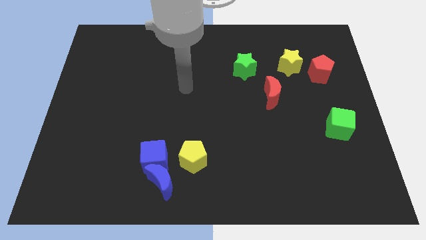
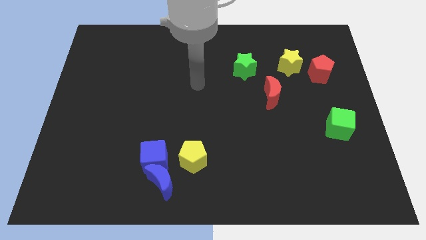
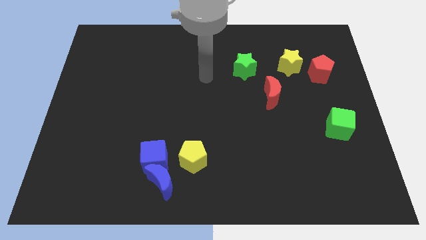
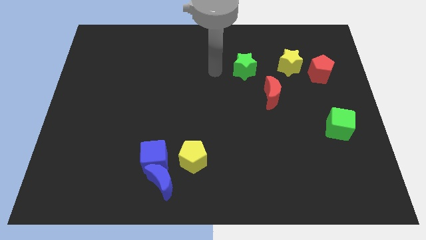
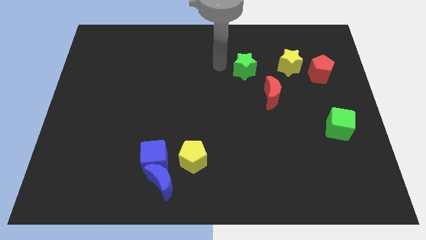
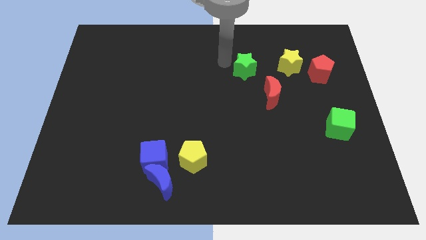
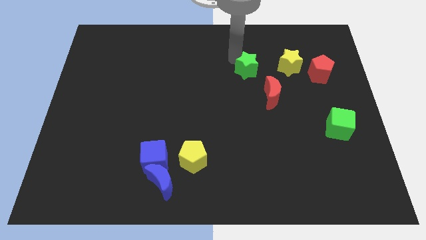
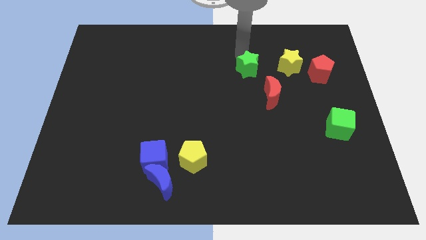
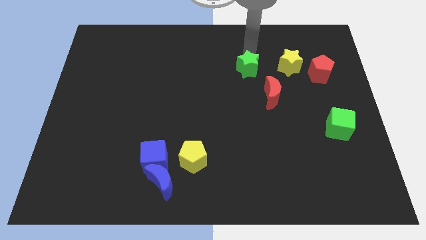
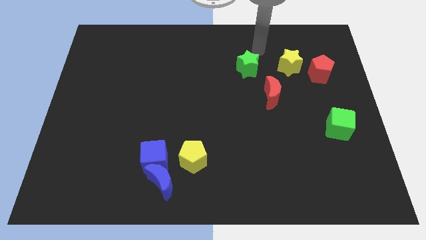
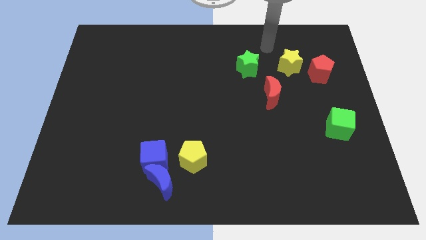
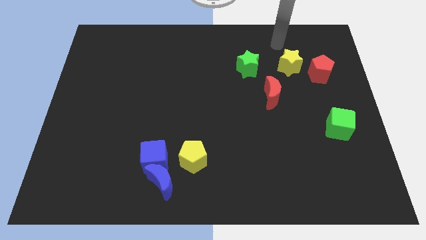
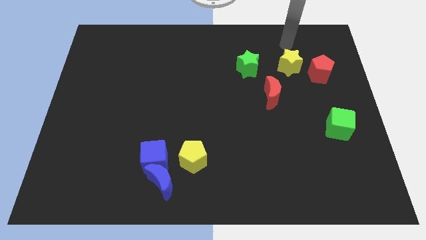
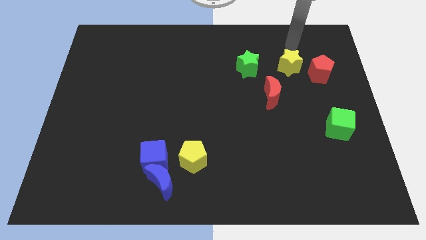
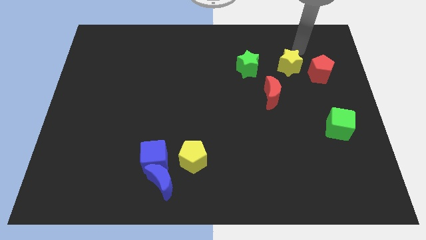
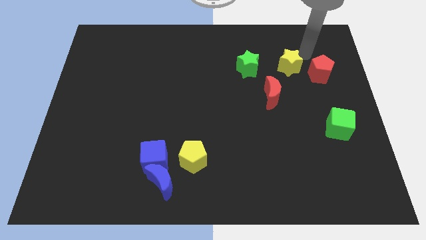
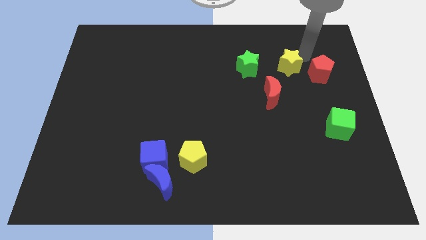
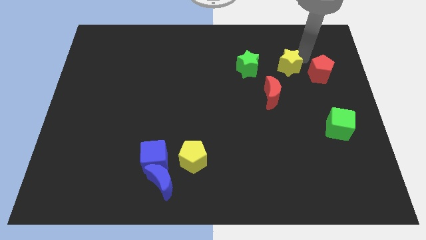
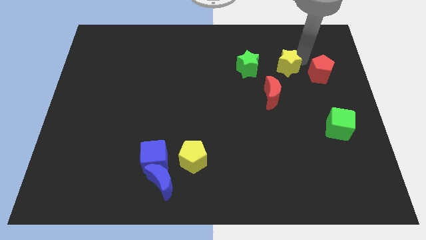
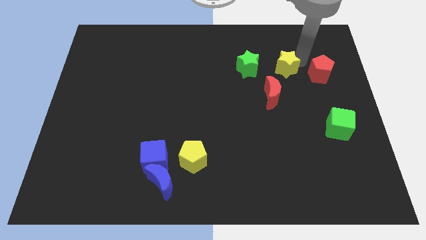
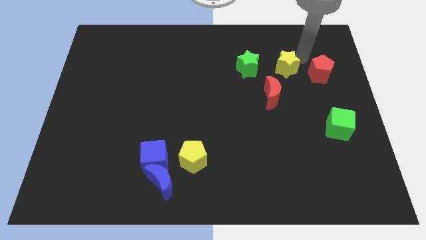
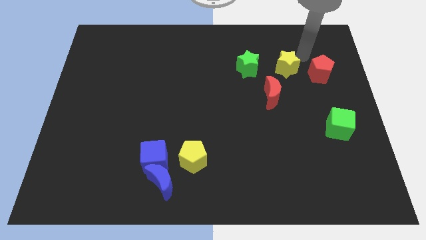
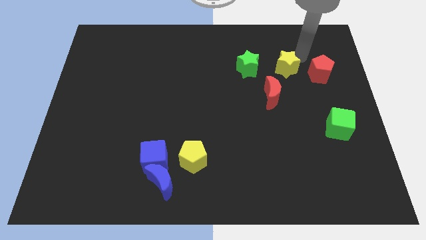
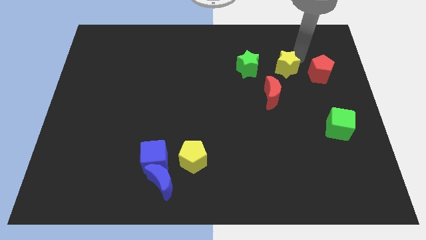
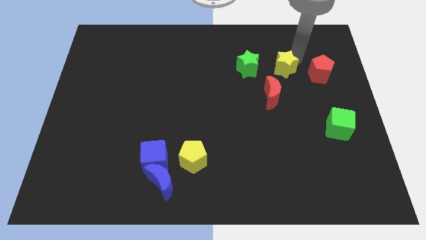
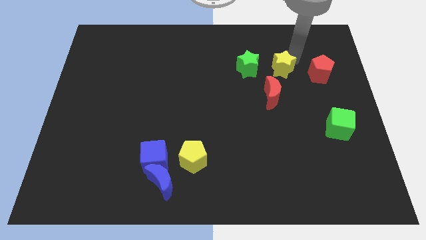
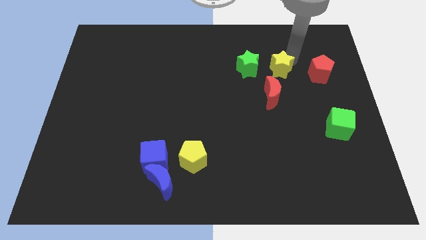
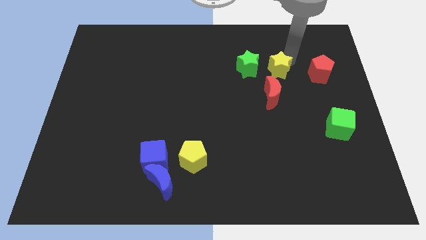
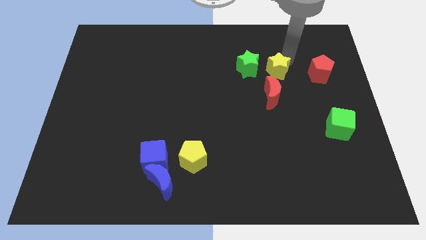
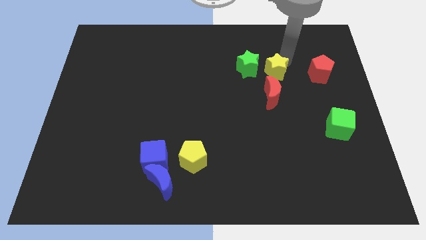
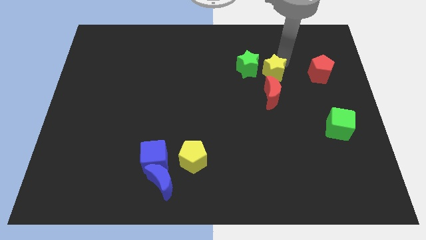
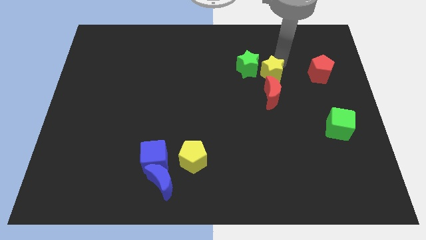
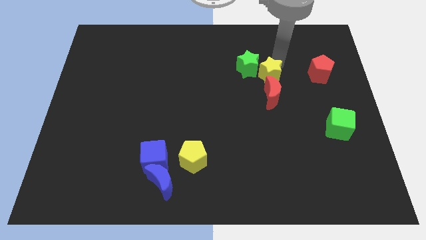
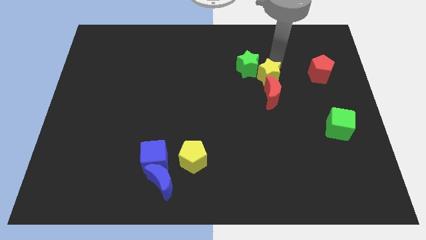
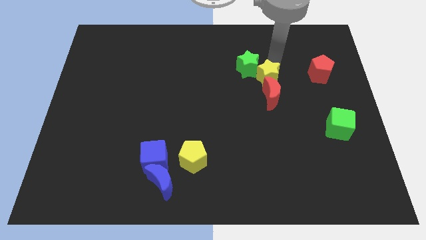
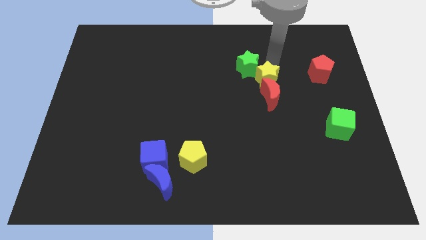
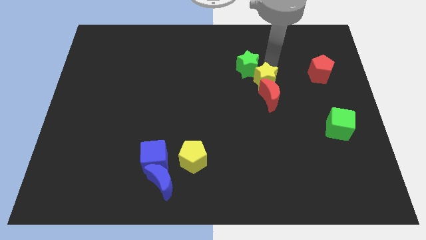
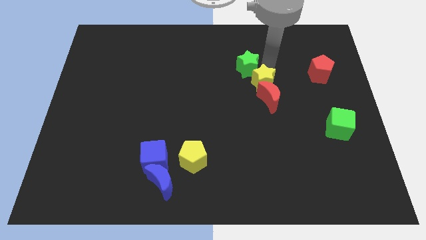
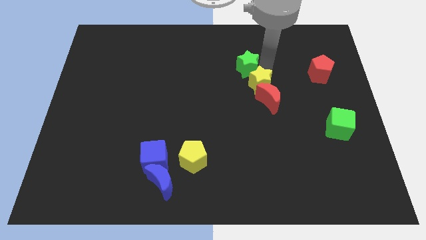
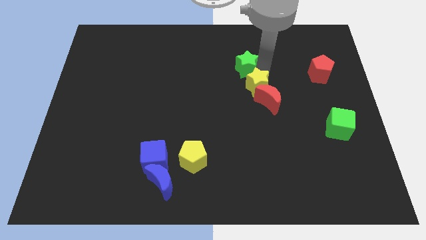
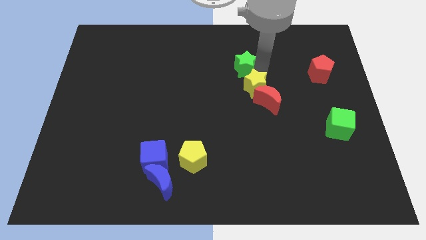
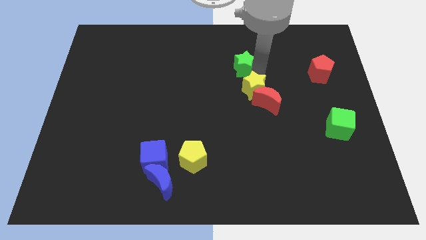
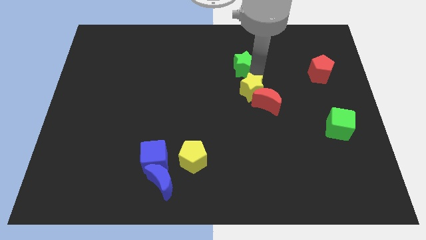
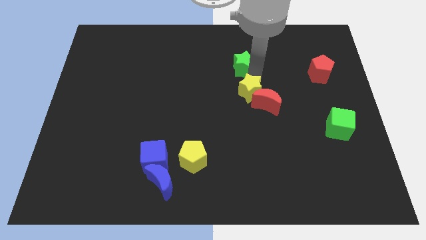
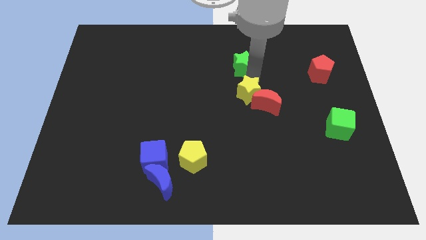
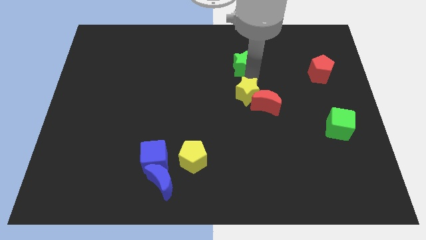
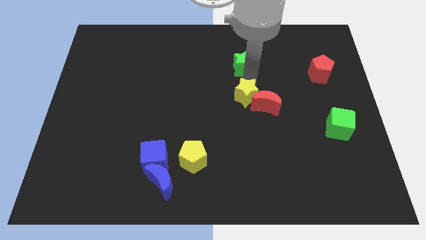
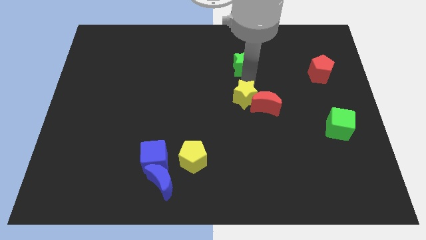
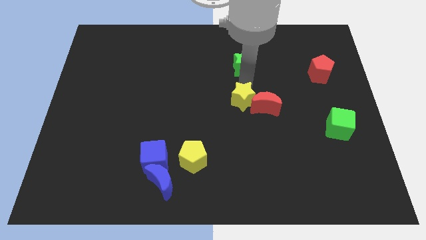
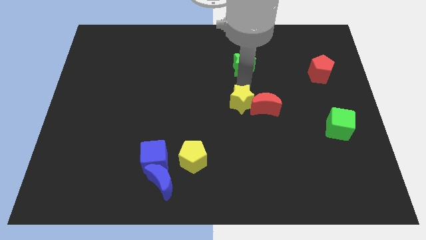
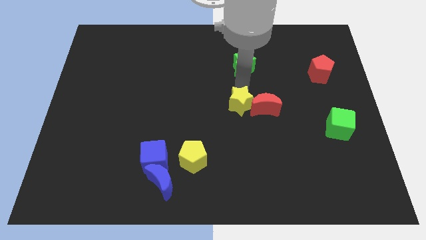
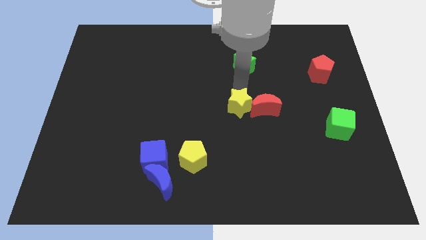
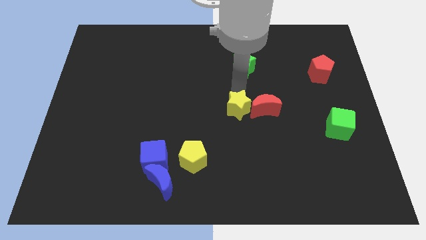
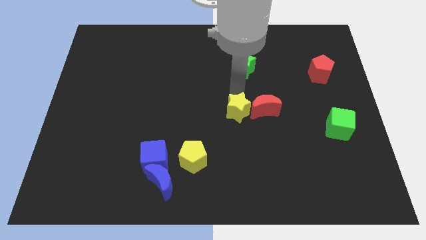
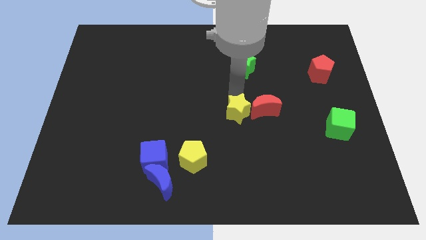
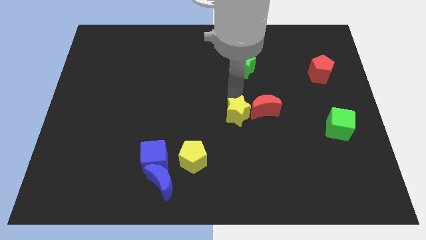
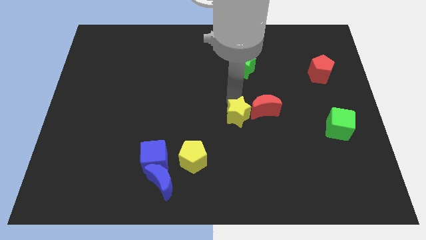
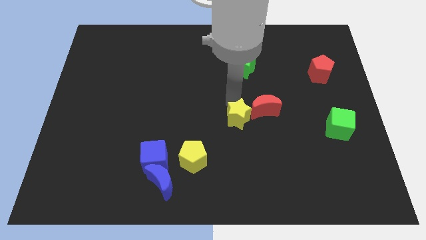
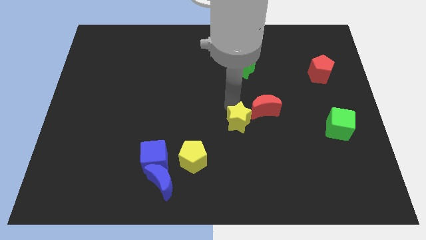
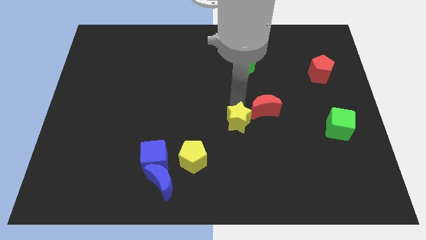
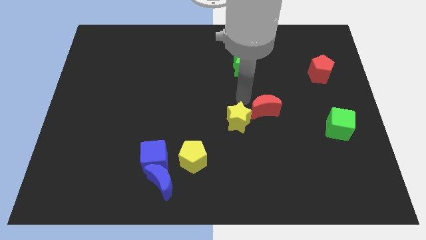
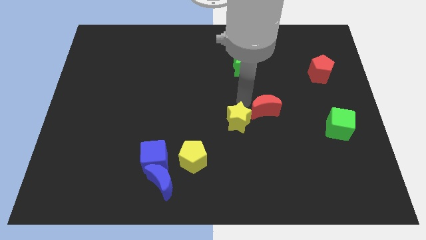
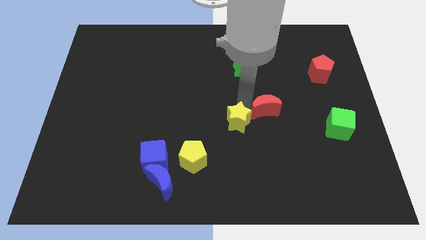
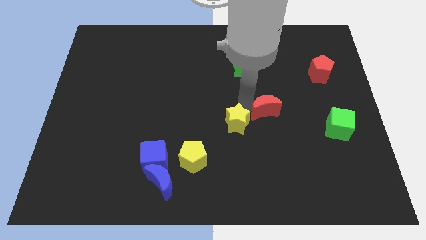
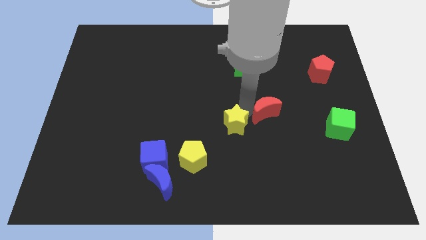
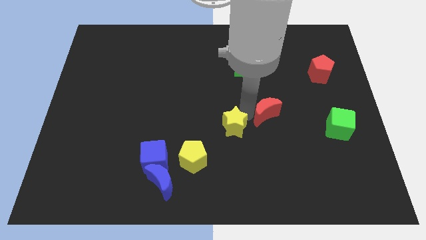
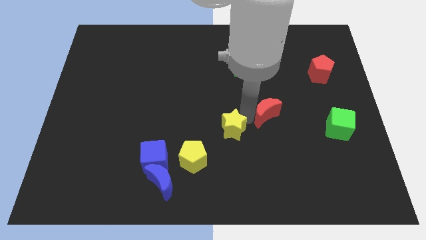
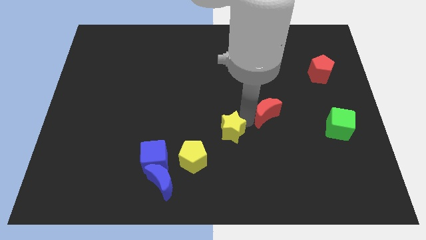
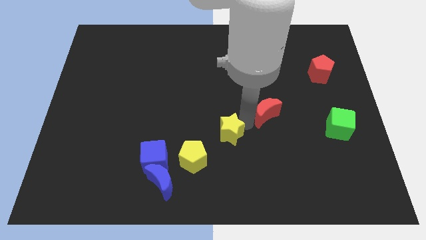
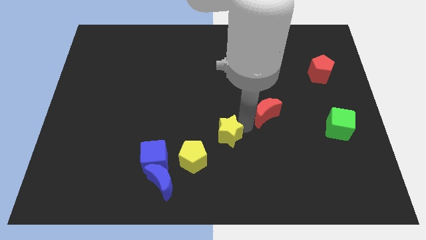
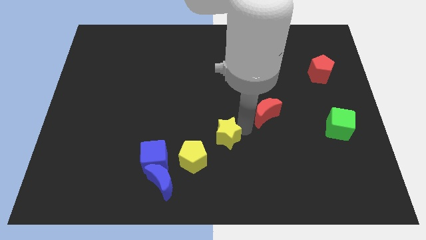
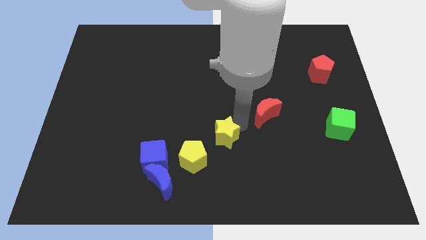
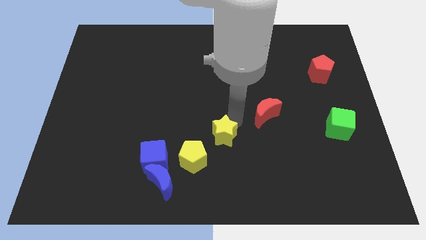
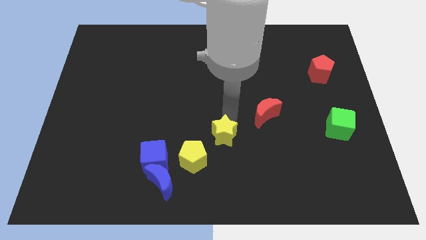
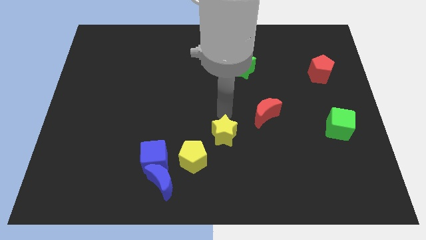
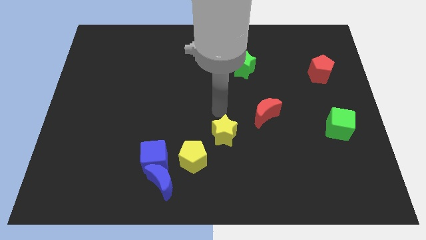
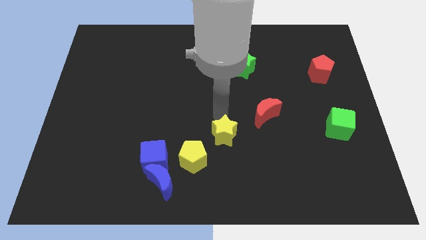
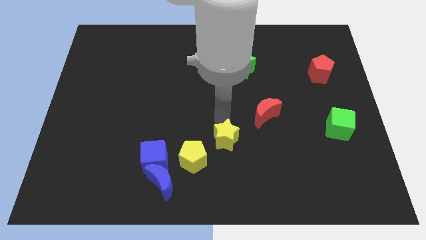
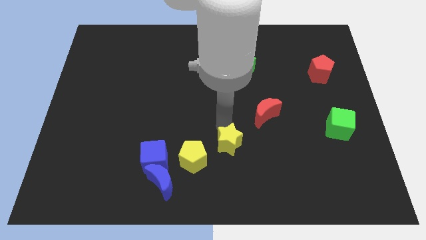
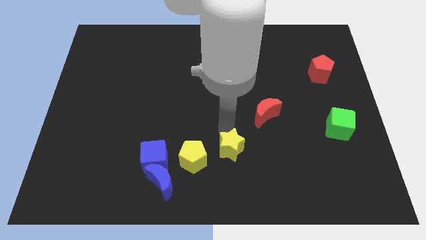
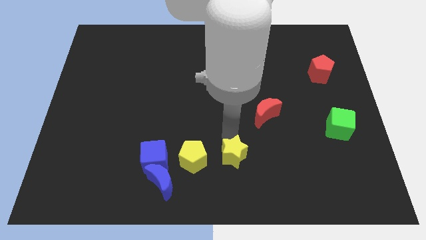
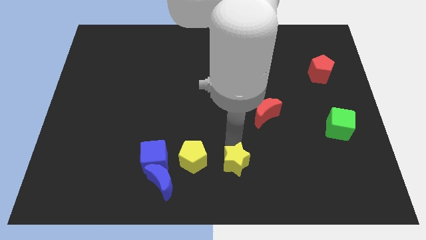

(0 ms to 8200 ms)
slide the yellow star to the bottom side
